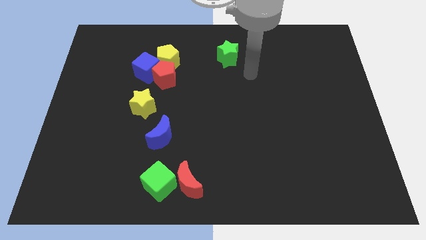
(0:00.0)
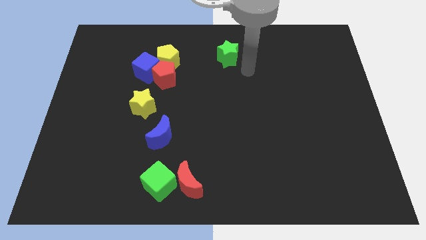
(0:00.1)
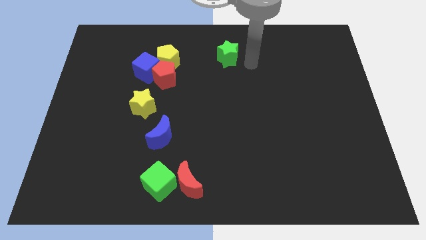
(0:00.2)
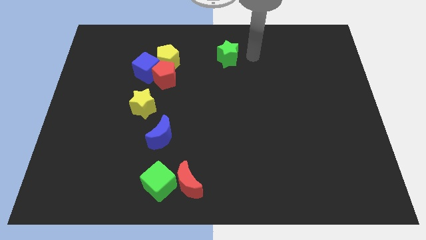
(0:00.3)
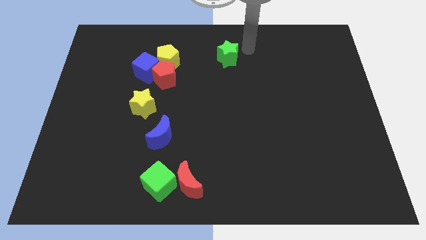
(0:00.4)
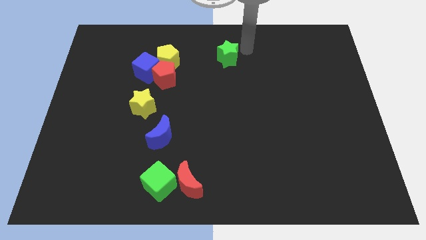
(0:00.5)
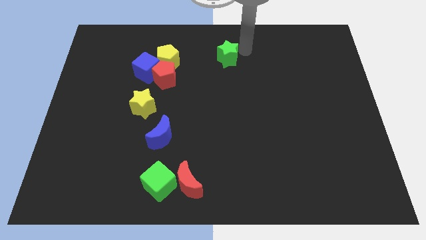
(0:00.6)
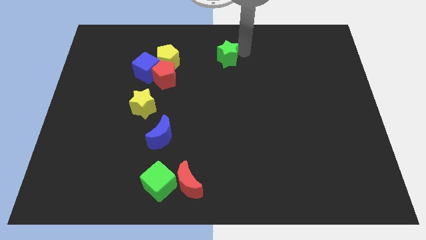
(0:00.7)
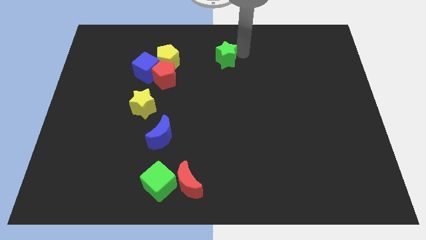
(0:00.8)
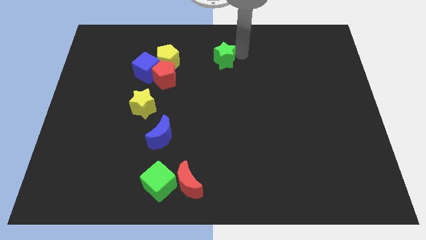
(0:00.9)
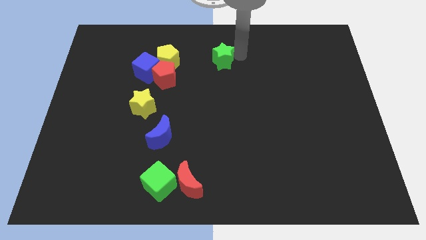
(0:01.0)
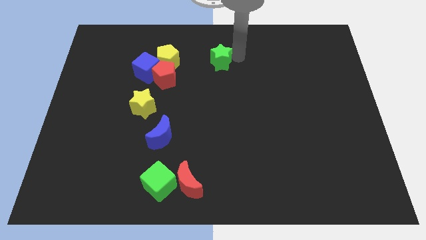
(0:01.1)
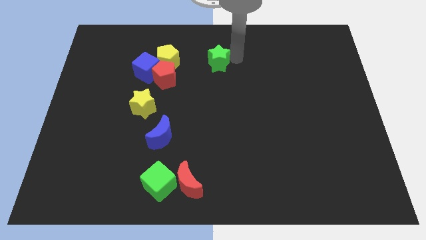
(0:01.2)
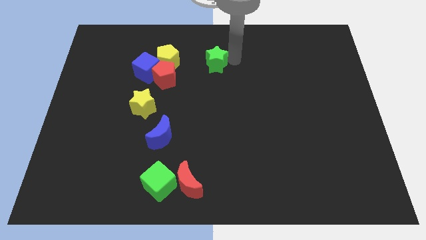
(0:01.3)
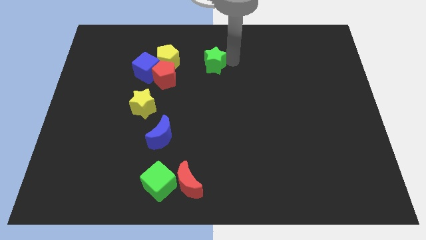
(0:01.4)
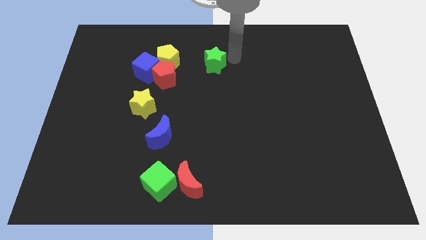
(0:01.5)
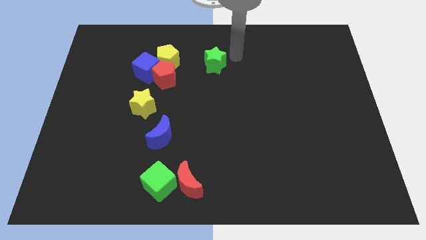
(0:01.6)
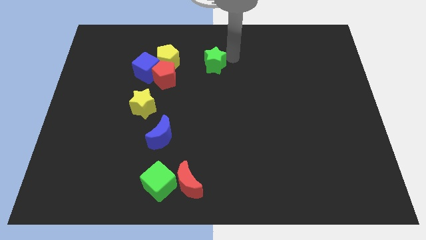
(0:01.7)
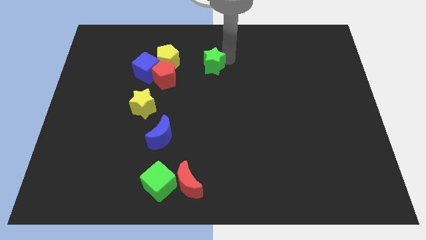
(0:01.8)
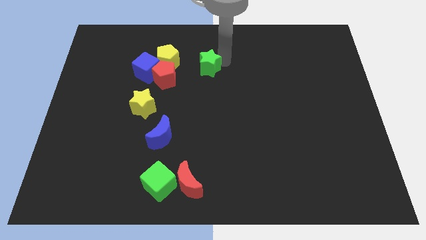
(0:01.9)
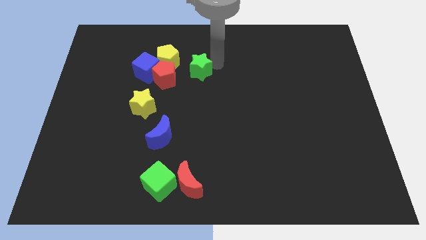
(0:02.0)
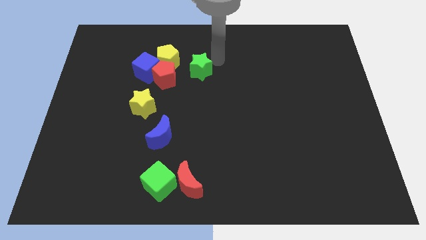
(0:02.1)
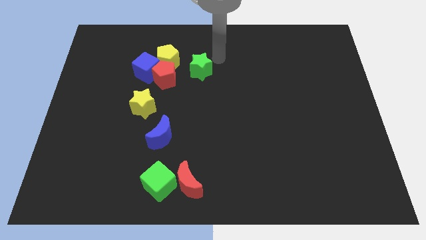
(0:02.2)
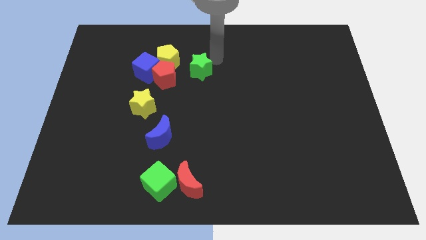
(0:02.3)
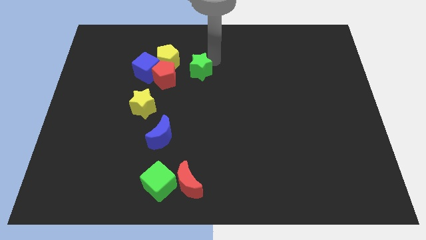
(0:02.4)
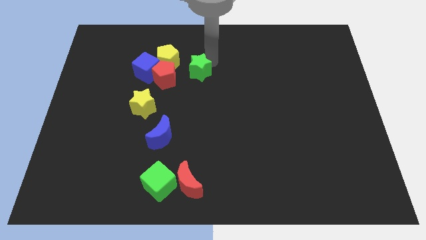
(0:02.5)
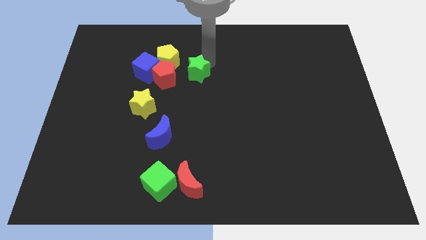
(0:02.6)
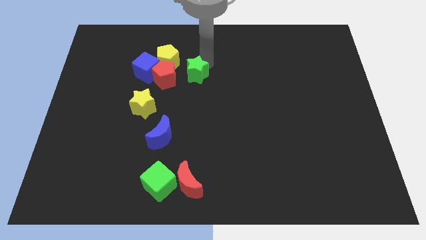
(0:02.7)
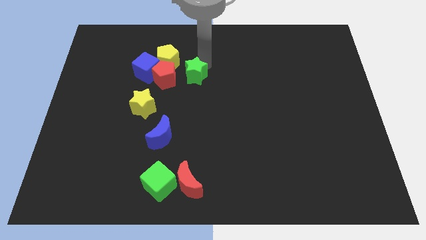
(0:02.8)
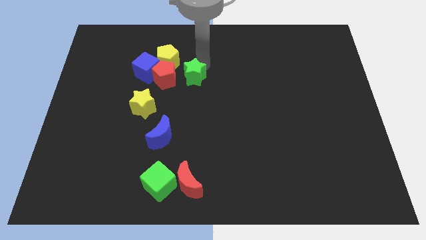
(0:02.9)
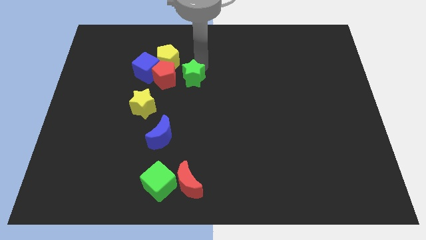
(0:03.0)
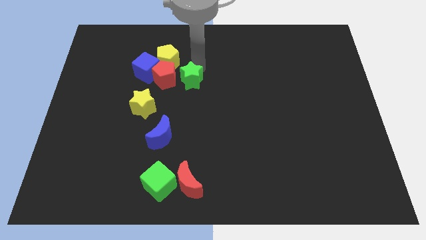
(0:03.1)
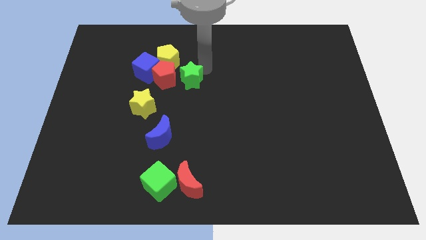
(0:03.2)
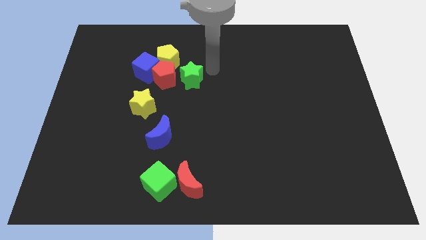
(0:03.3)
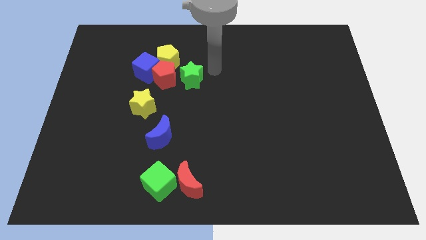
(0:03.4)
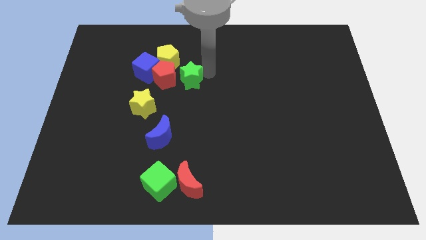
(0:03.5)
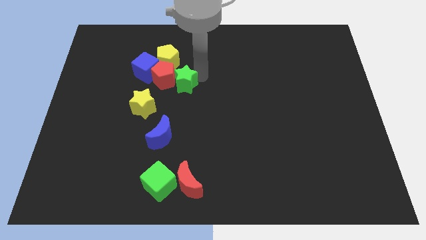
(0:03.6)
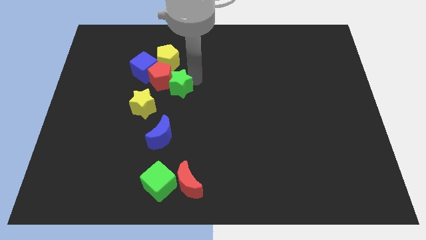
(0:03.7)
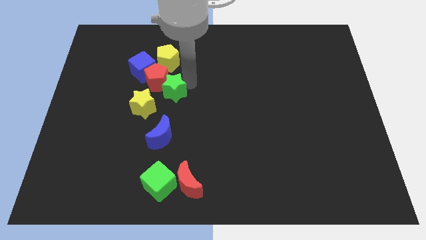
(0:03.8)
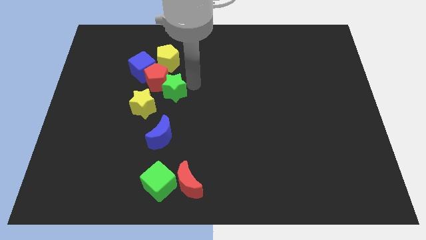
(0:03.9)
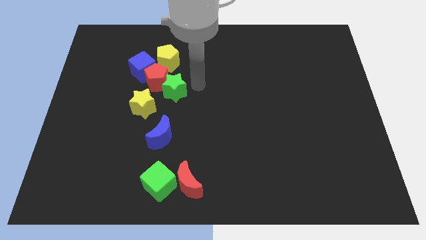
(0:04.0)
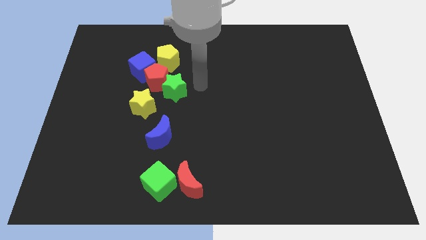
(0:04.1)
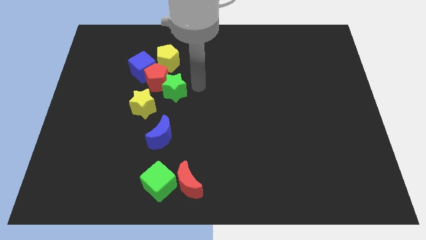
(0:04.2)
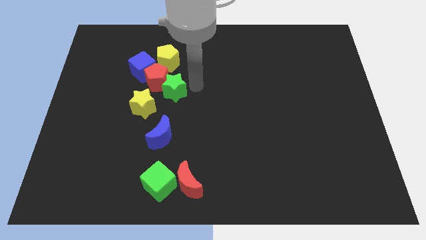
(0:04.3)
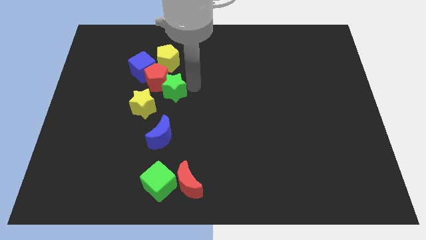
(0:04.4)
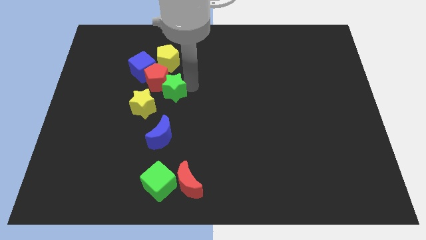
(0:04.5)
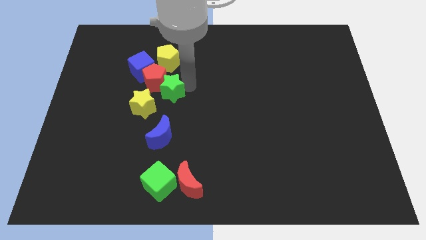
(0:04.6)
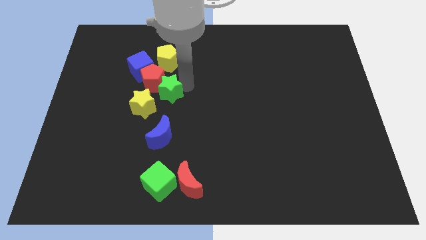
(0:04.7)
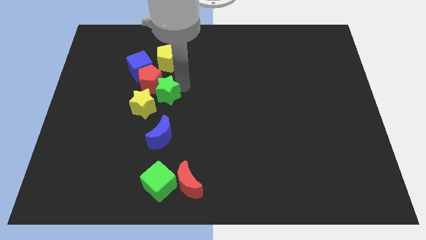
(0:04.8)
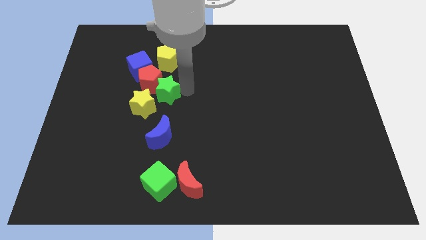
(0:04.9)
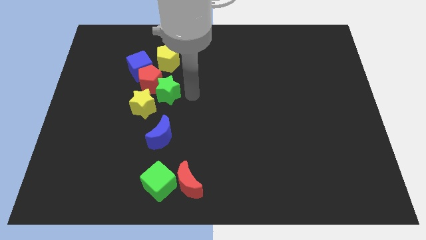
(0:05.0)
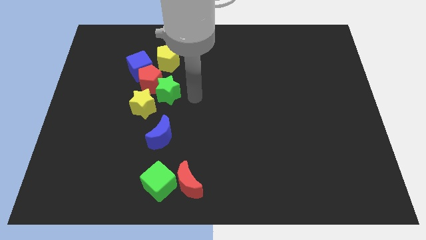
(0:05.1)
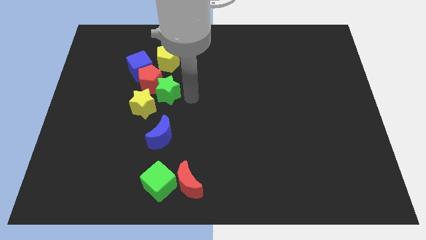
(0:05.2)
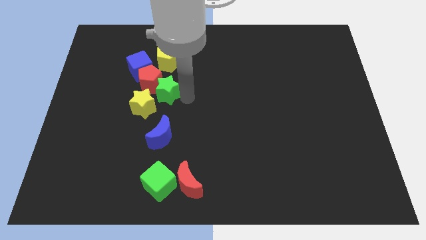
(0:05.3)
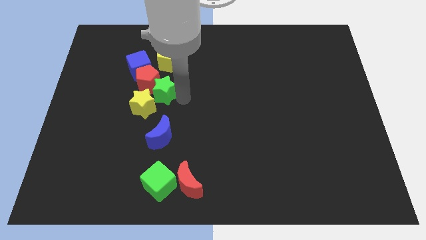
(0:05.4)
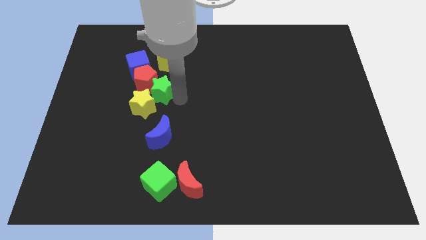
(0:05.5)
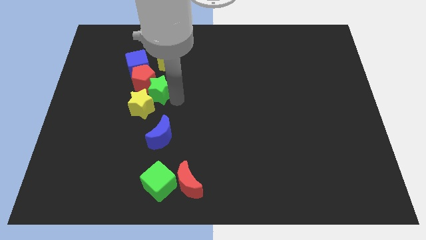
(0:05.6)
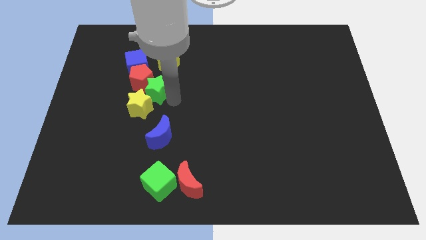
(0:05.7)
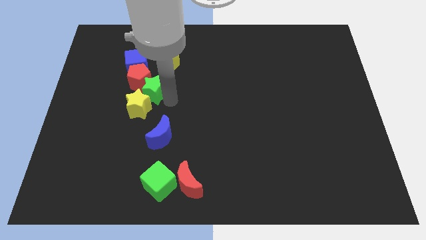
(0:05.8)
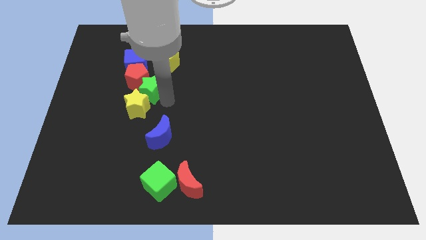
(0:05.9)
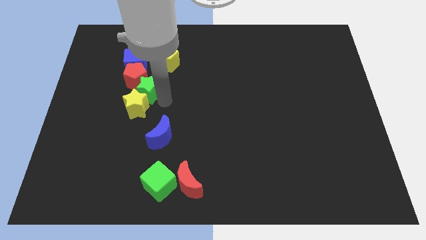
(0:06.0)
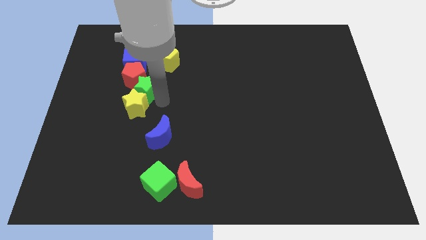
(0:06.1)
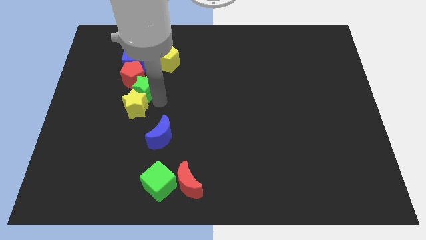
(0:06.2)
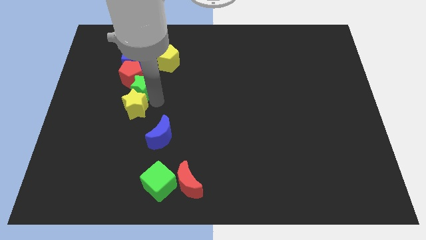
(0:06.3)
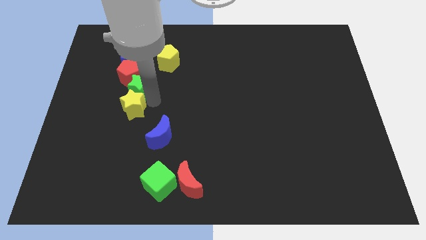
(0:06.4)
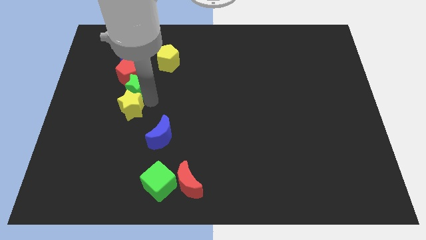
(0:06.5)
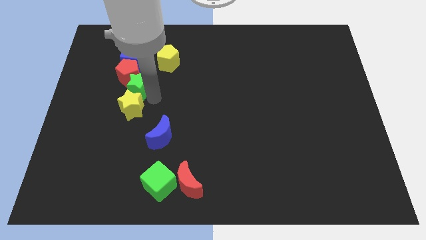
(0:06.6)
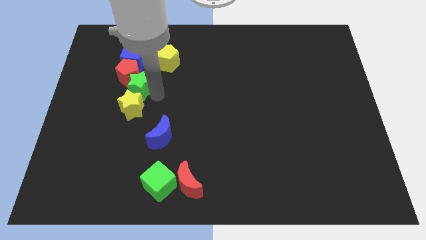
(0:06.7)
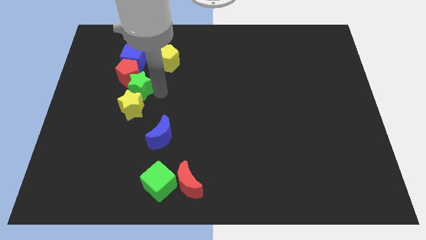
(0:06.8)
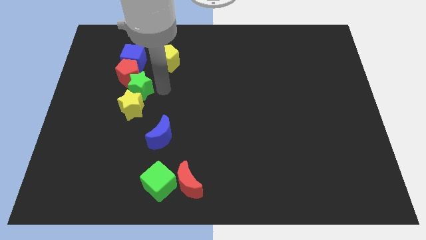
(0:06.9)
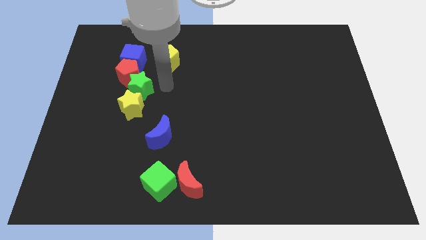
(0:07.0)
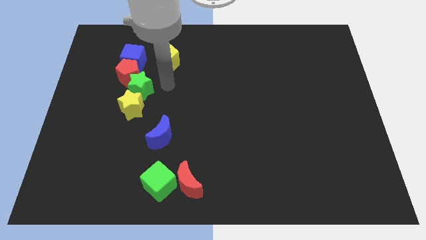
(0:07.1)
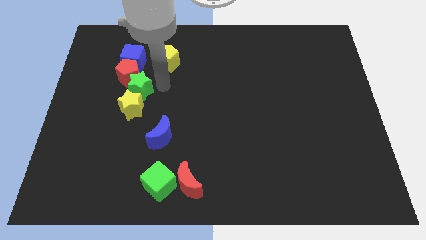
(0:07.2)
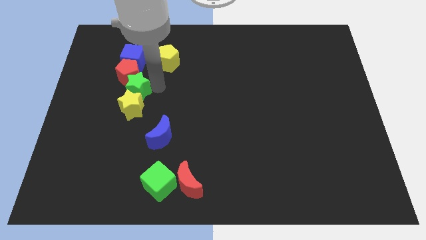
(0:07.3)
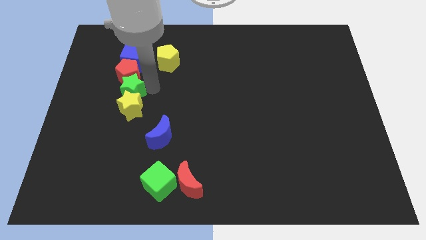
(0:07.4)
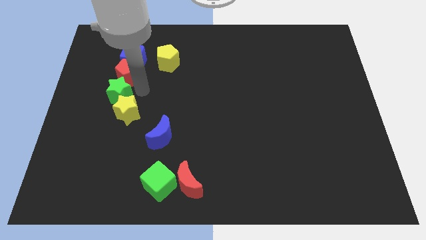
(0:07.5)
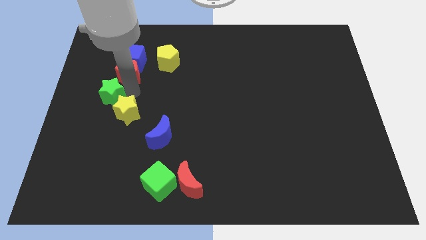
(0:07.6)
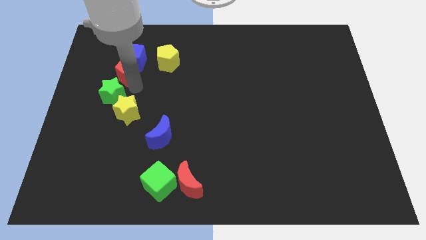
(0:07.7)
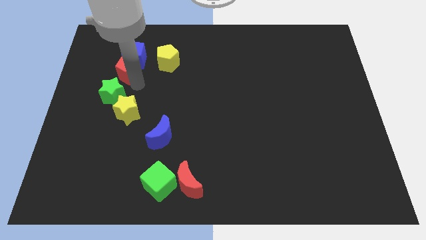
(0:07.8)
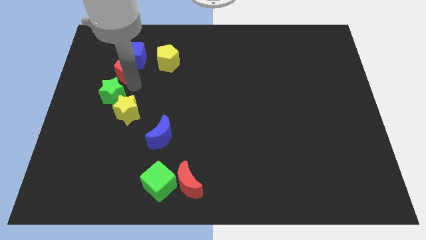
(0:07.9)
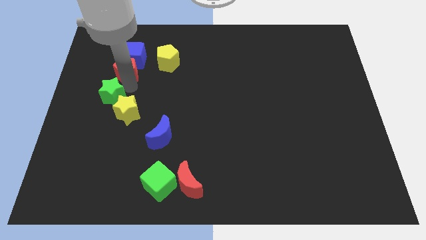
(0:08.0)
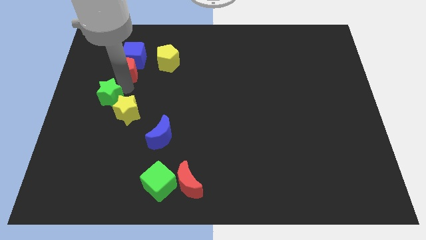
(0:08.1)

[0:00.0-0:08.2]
put the green star left of the yellow star

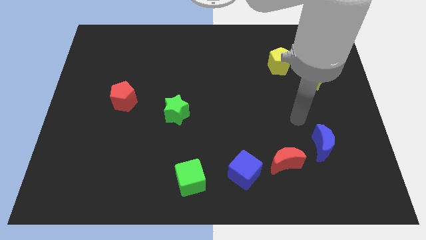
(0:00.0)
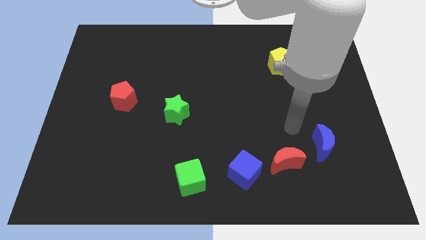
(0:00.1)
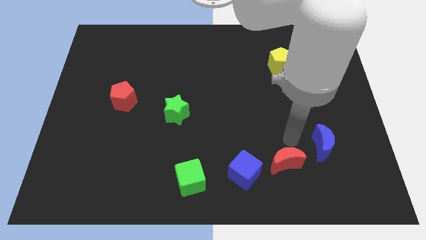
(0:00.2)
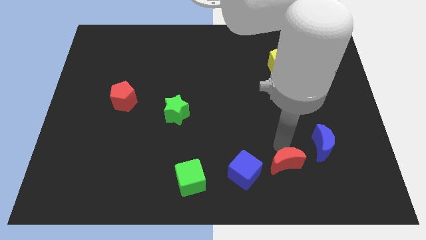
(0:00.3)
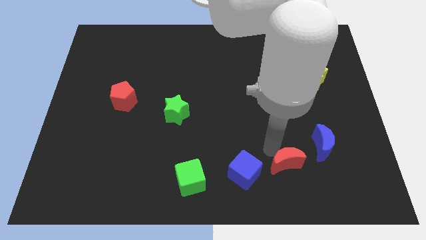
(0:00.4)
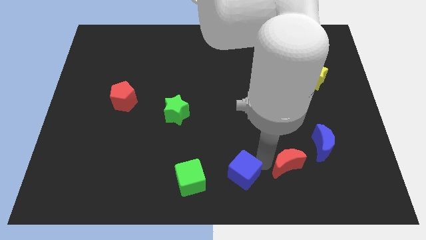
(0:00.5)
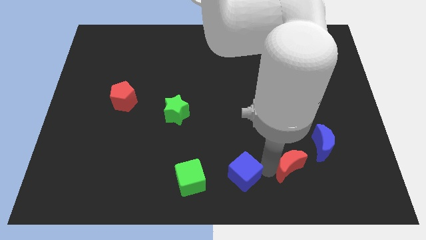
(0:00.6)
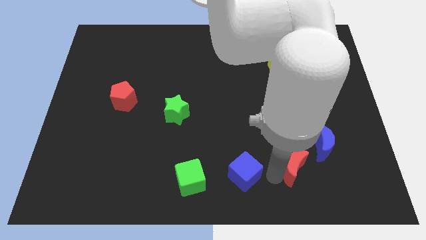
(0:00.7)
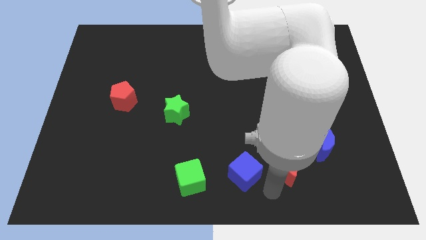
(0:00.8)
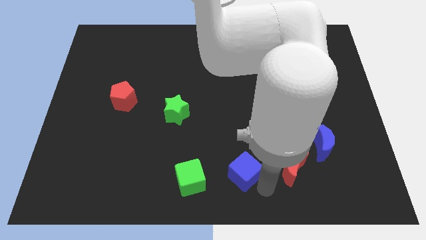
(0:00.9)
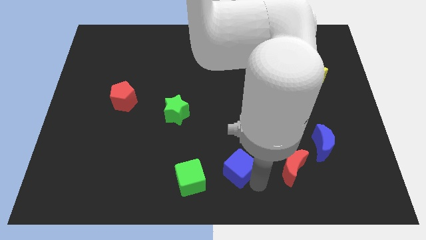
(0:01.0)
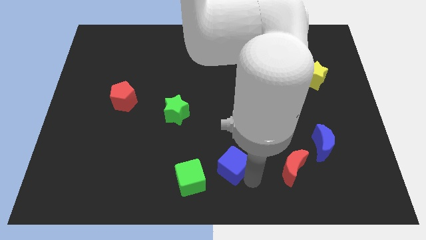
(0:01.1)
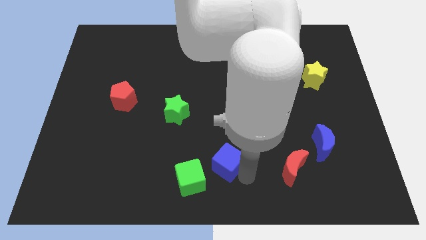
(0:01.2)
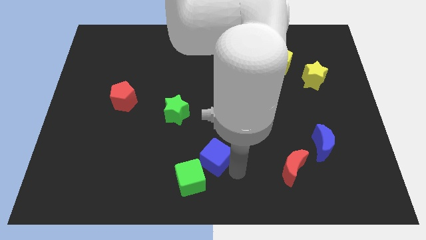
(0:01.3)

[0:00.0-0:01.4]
put the blue cube to the top side of the green cube
